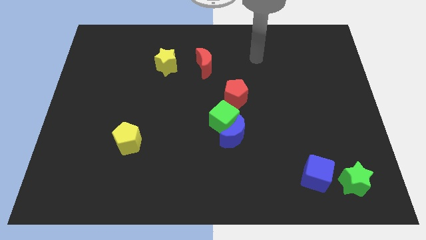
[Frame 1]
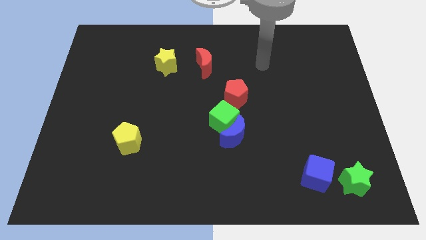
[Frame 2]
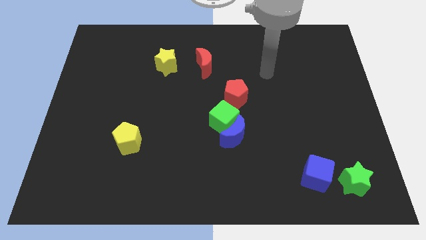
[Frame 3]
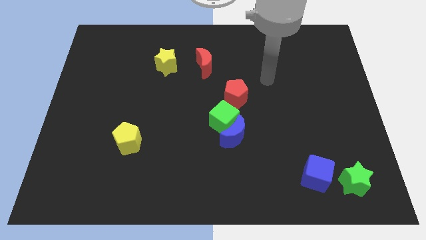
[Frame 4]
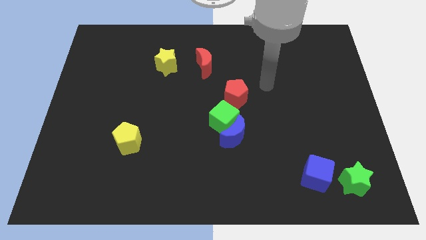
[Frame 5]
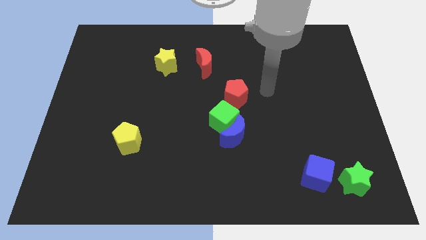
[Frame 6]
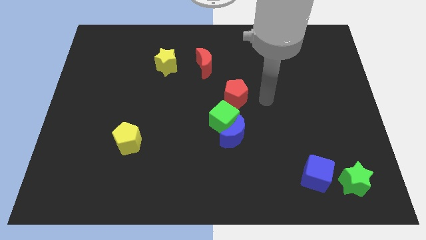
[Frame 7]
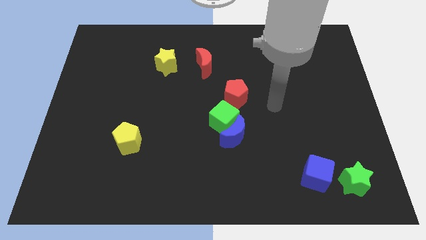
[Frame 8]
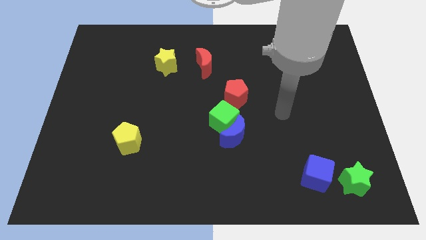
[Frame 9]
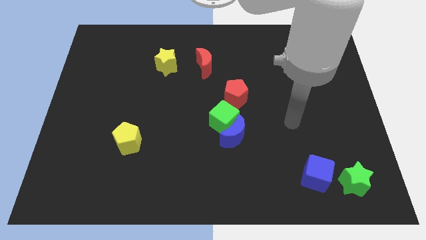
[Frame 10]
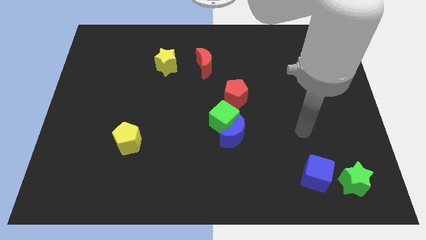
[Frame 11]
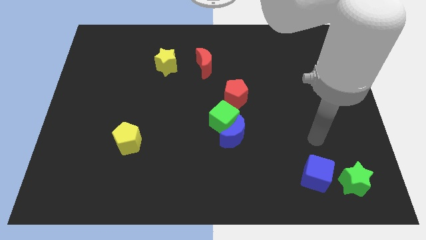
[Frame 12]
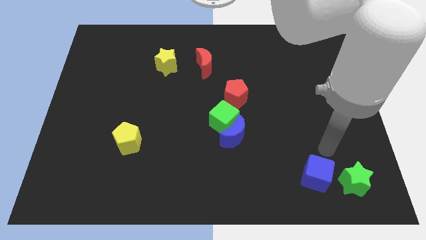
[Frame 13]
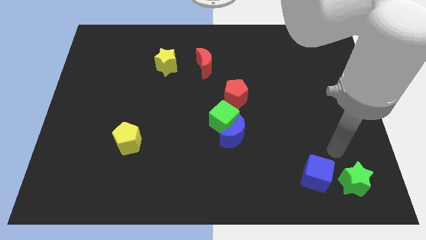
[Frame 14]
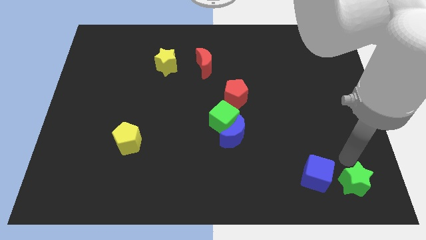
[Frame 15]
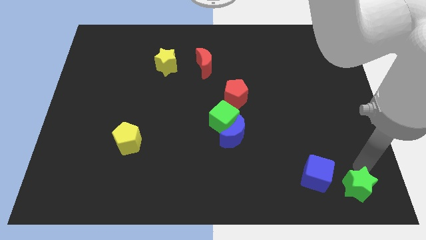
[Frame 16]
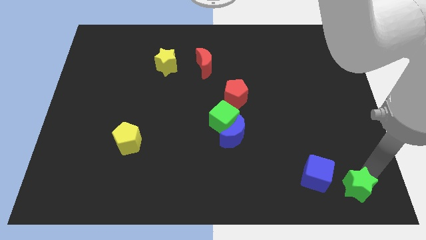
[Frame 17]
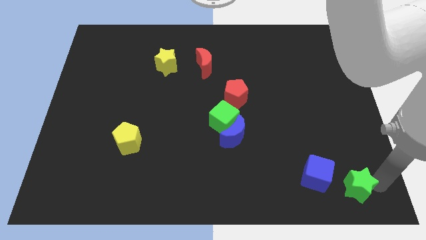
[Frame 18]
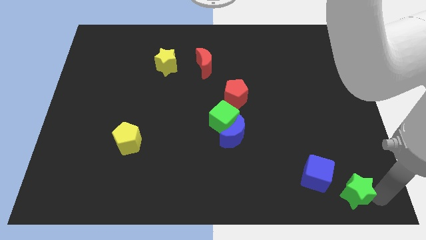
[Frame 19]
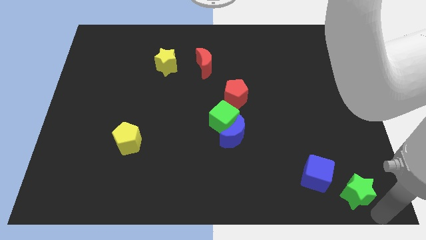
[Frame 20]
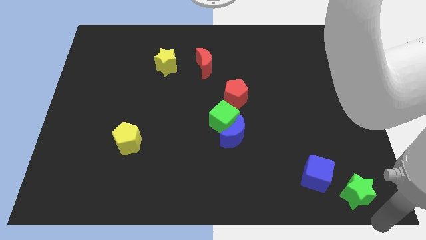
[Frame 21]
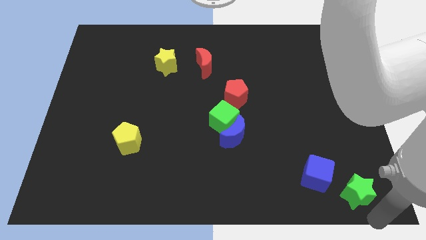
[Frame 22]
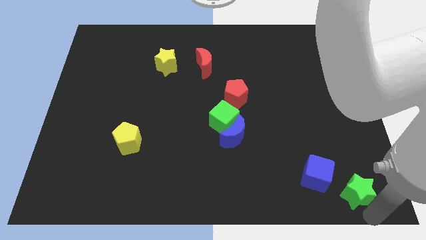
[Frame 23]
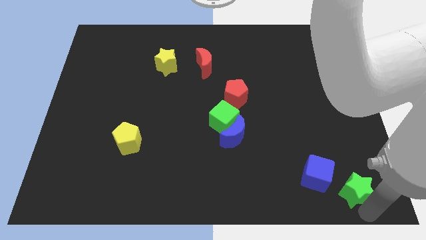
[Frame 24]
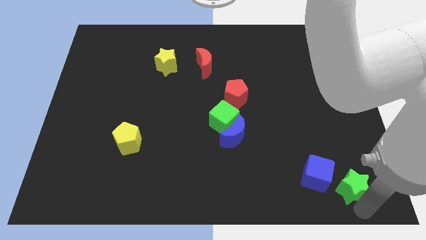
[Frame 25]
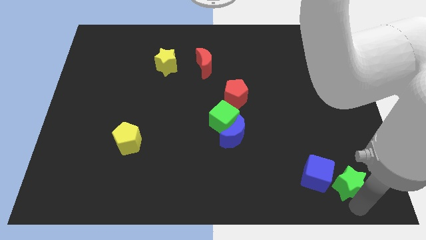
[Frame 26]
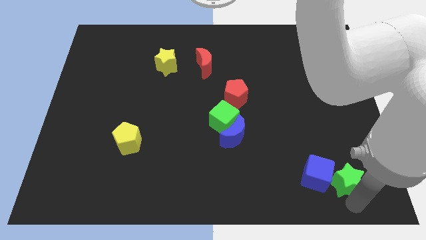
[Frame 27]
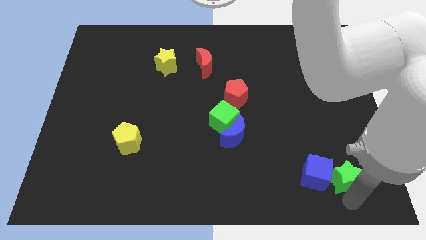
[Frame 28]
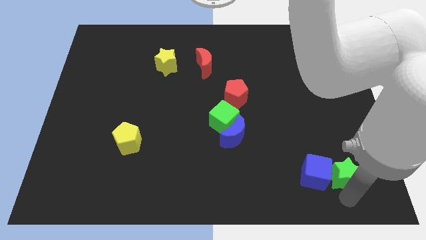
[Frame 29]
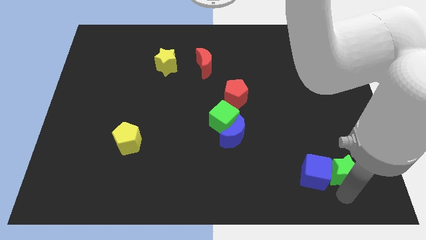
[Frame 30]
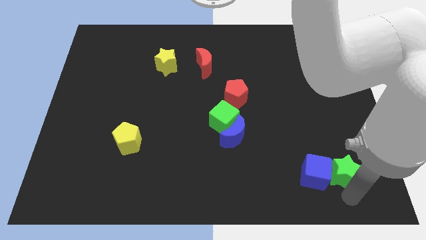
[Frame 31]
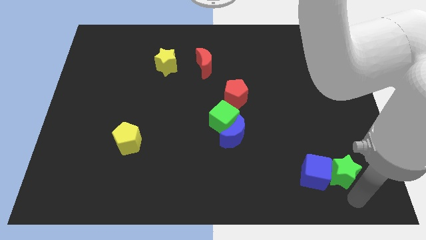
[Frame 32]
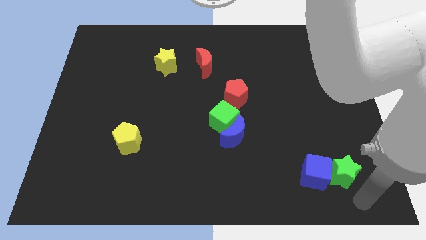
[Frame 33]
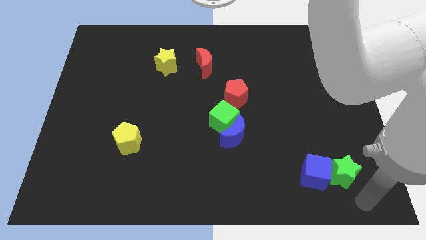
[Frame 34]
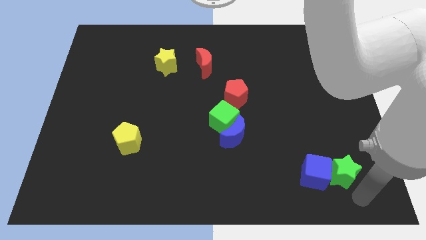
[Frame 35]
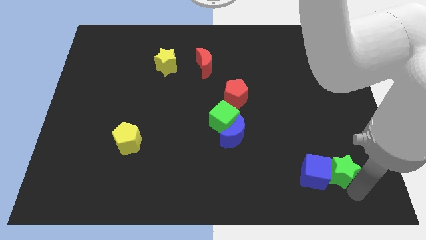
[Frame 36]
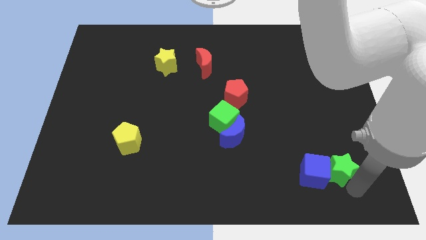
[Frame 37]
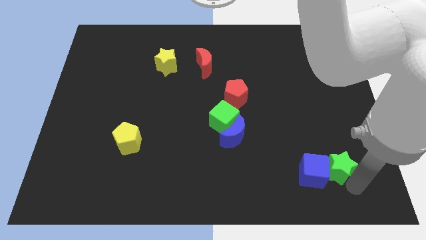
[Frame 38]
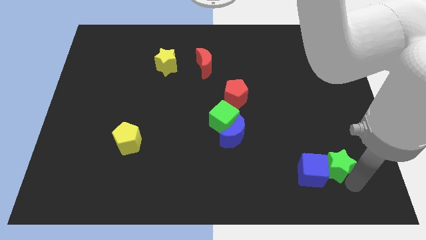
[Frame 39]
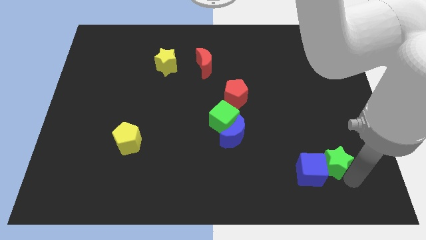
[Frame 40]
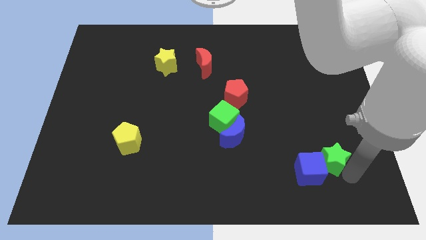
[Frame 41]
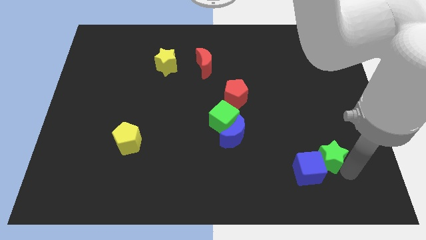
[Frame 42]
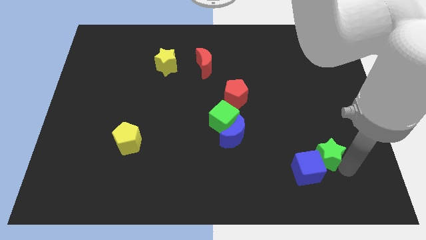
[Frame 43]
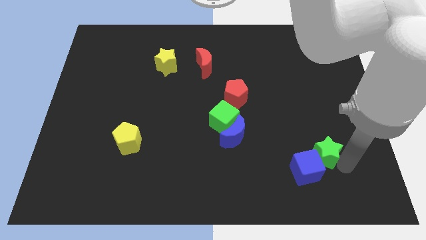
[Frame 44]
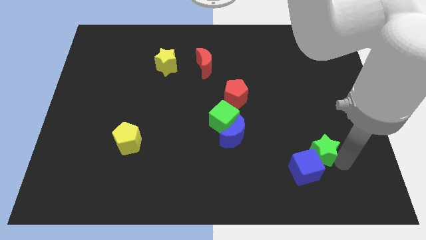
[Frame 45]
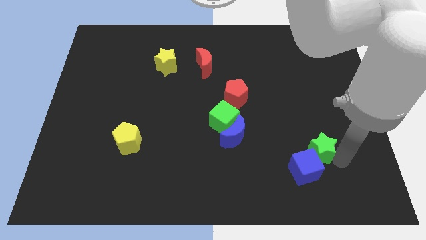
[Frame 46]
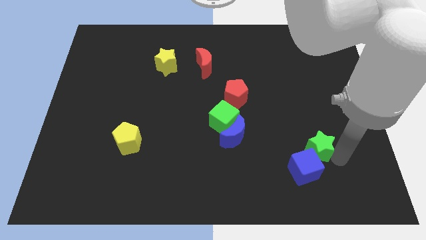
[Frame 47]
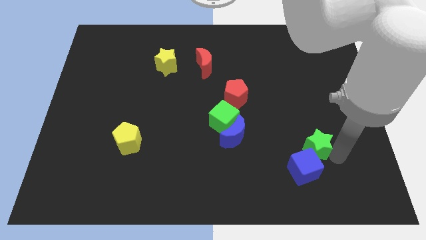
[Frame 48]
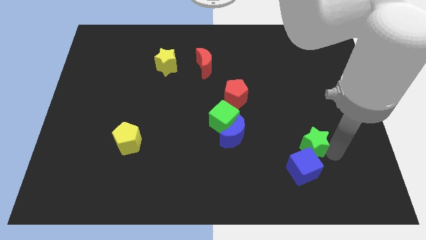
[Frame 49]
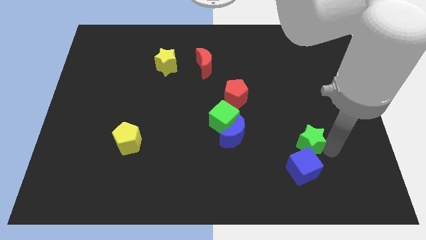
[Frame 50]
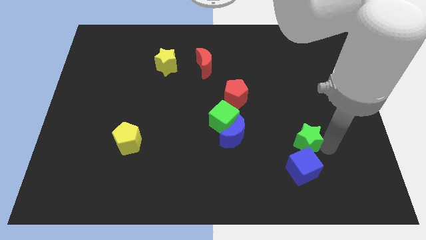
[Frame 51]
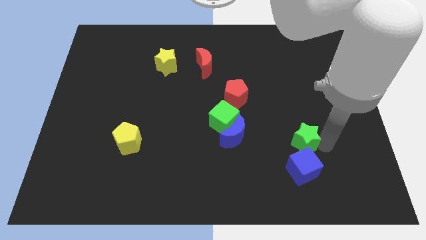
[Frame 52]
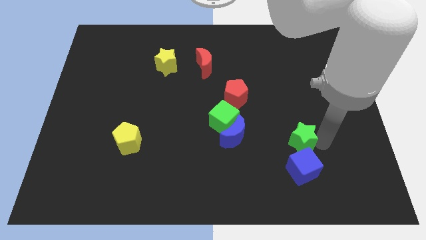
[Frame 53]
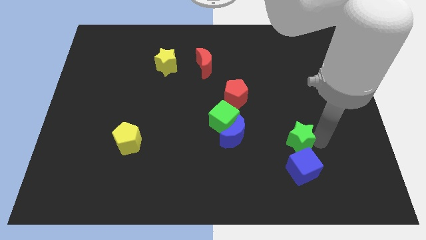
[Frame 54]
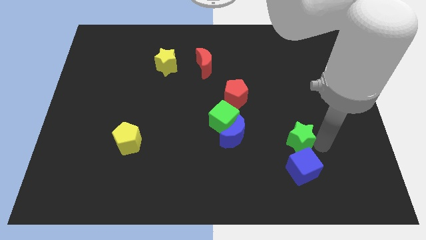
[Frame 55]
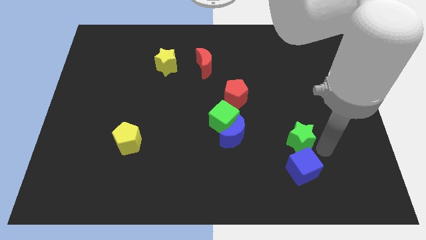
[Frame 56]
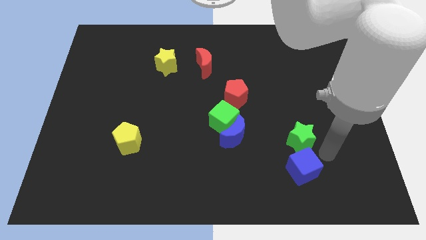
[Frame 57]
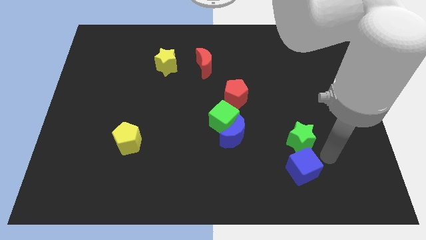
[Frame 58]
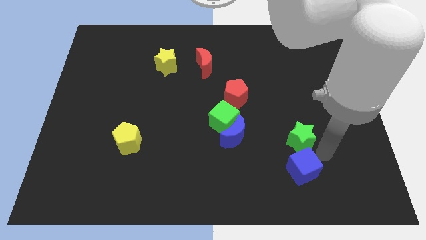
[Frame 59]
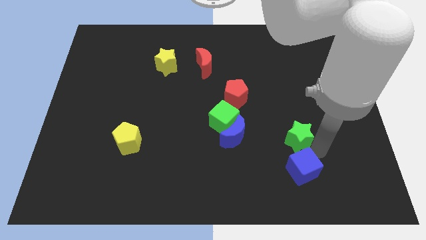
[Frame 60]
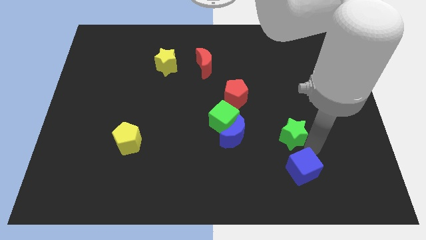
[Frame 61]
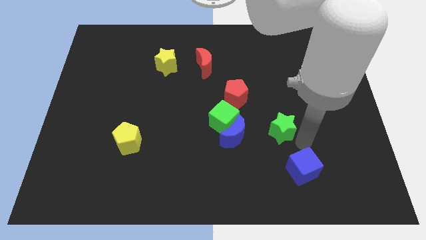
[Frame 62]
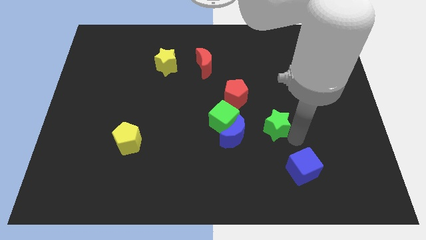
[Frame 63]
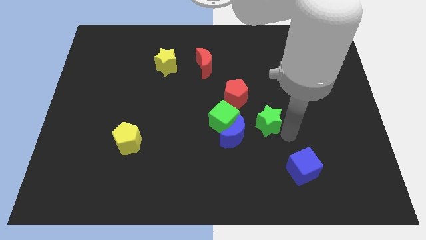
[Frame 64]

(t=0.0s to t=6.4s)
push the green star to the top right side of the blue moon

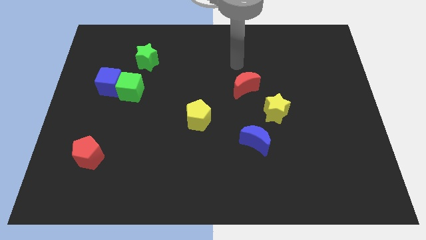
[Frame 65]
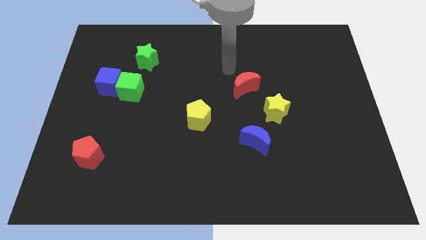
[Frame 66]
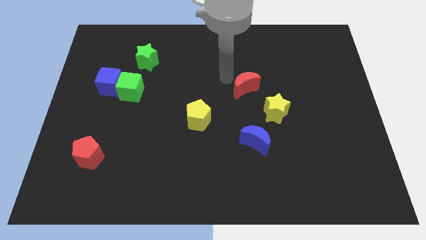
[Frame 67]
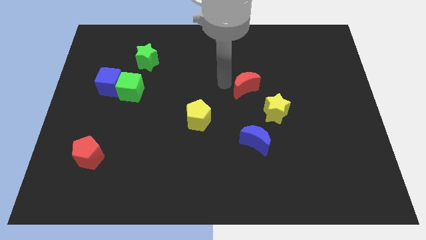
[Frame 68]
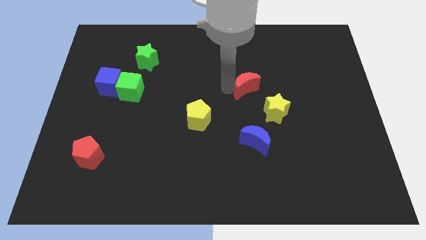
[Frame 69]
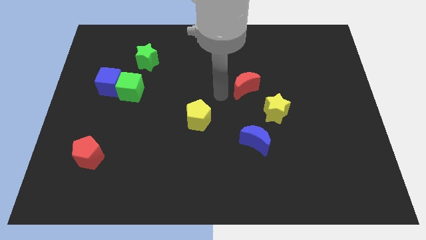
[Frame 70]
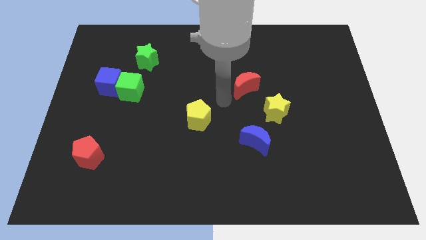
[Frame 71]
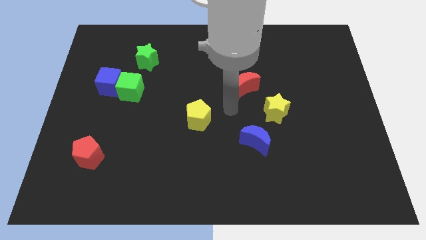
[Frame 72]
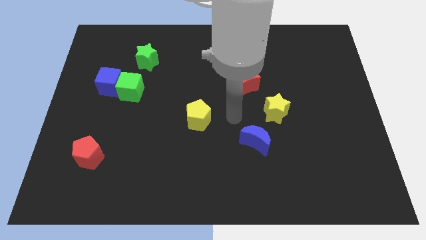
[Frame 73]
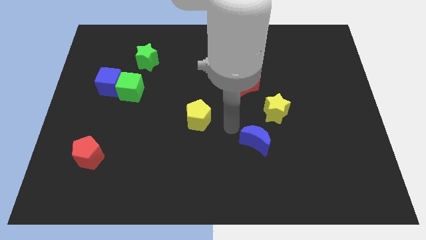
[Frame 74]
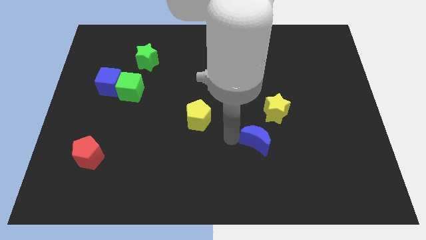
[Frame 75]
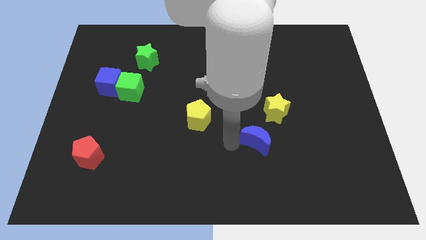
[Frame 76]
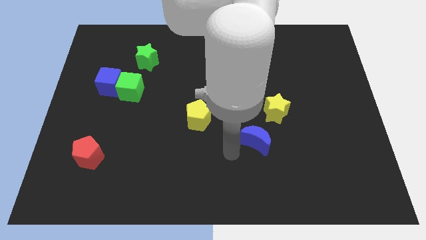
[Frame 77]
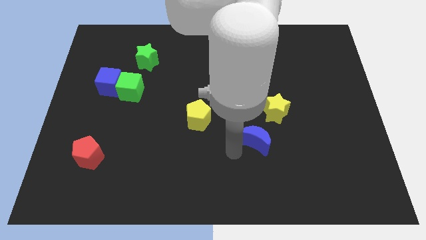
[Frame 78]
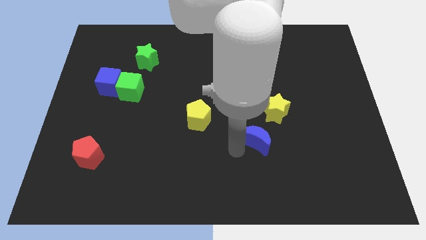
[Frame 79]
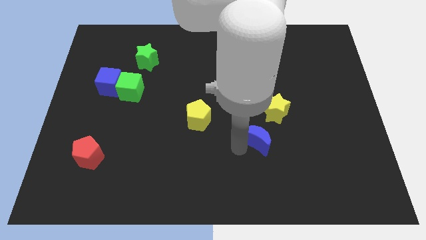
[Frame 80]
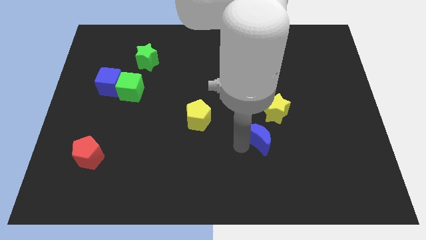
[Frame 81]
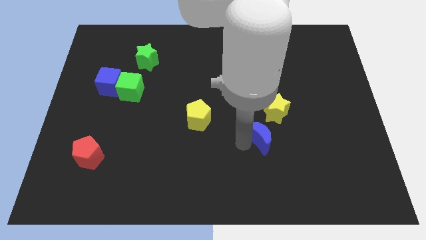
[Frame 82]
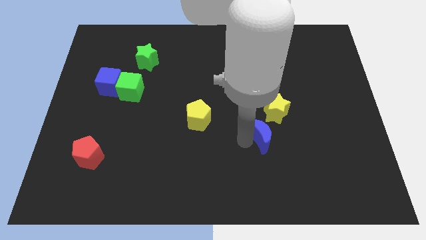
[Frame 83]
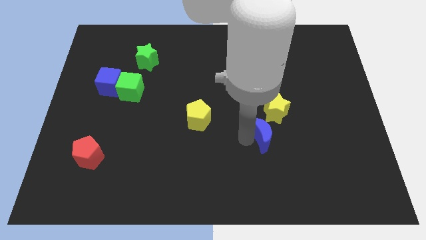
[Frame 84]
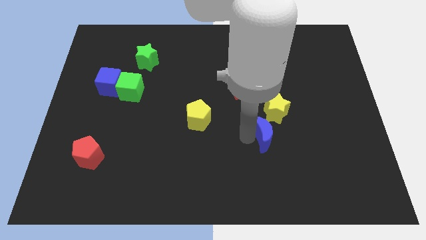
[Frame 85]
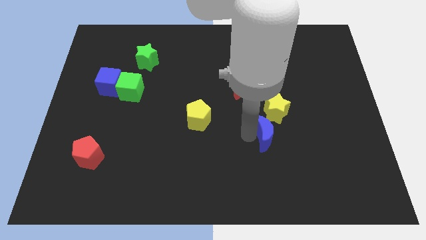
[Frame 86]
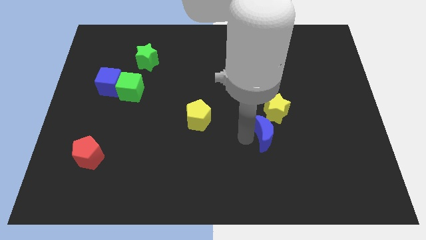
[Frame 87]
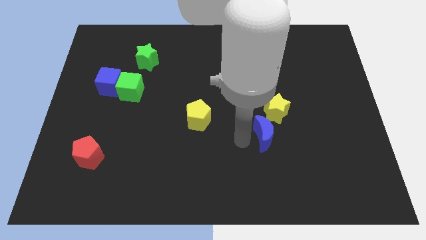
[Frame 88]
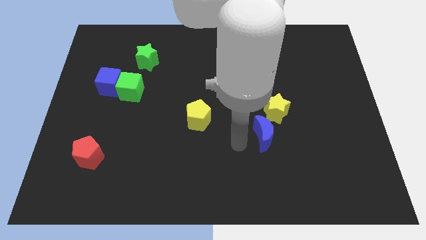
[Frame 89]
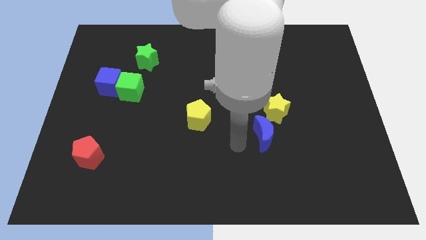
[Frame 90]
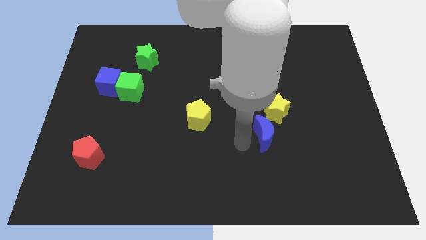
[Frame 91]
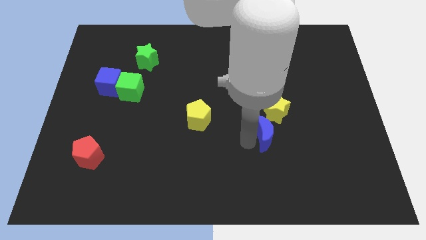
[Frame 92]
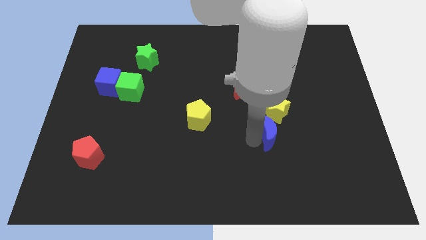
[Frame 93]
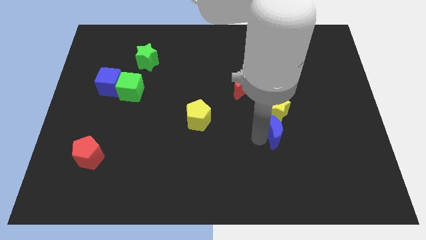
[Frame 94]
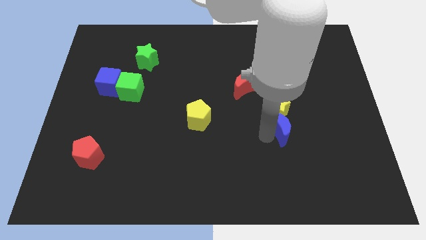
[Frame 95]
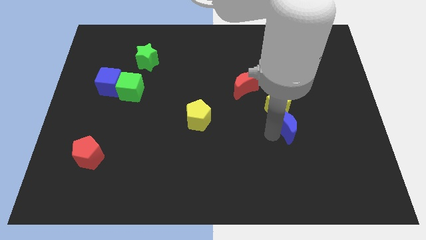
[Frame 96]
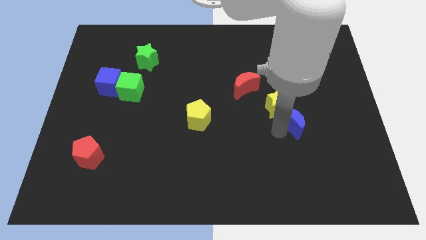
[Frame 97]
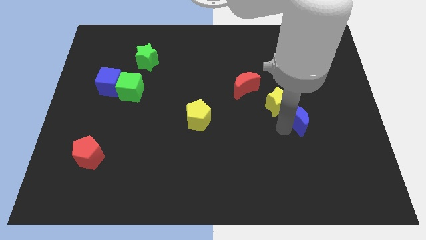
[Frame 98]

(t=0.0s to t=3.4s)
push the blue moon just right of the yellow star
